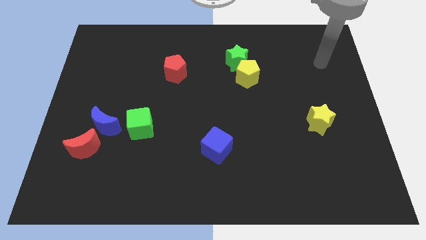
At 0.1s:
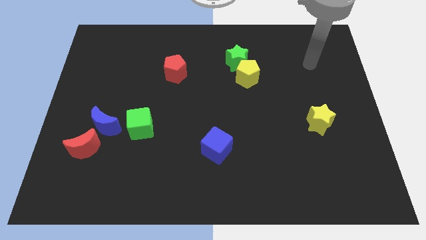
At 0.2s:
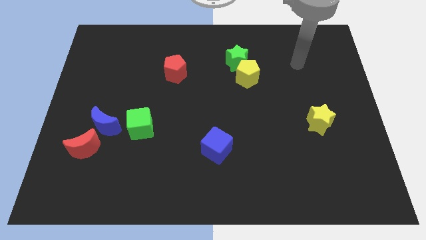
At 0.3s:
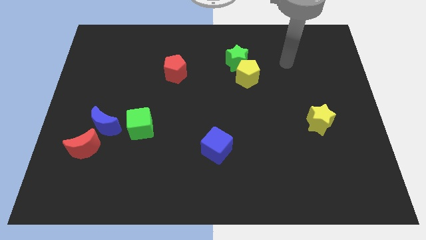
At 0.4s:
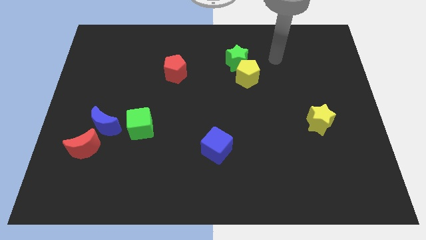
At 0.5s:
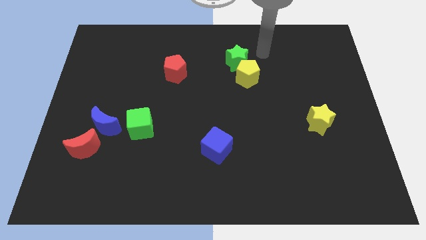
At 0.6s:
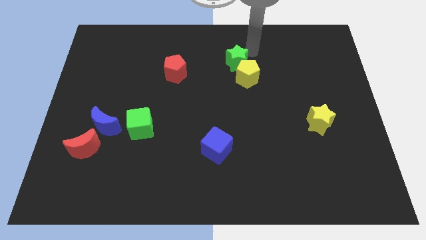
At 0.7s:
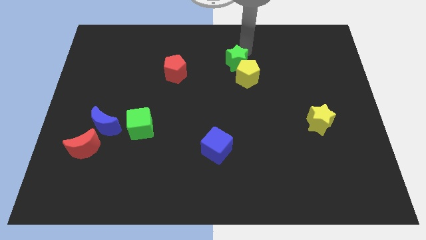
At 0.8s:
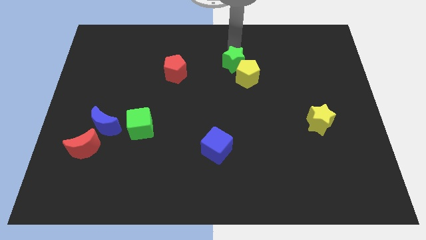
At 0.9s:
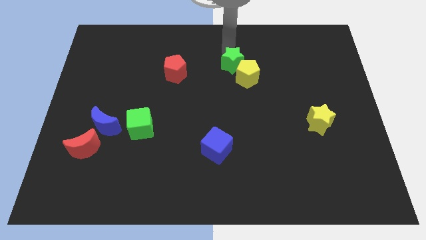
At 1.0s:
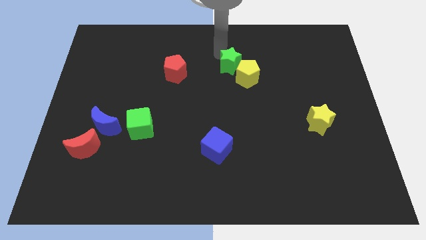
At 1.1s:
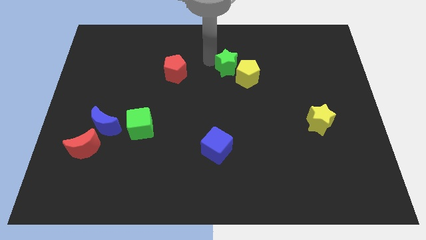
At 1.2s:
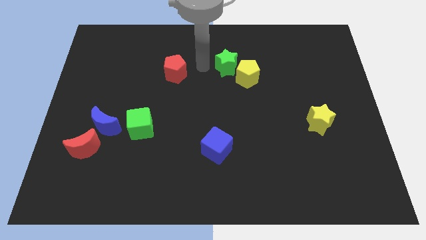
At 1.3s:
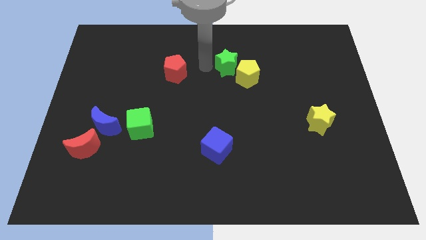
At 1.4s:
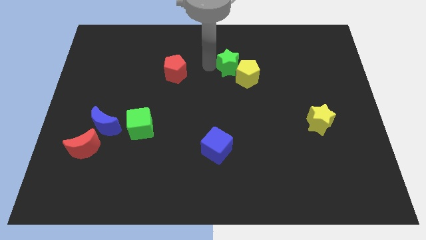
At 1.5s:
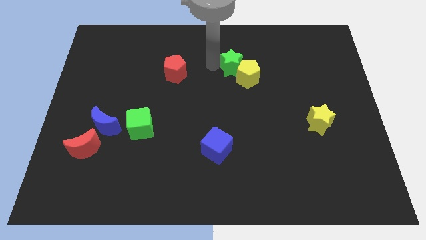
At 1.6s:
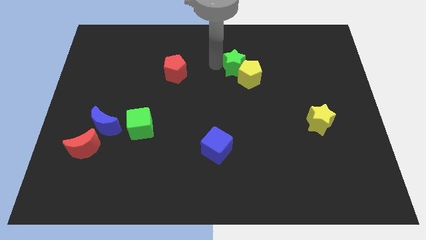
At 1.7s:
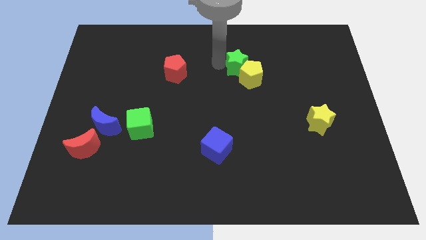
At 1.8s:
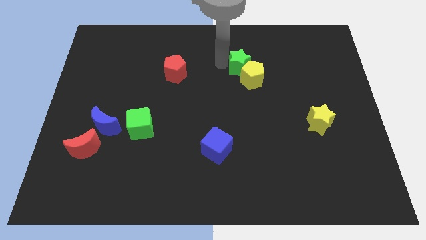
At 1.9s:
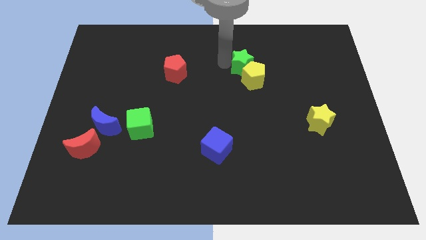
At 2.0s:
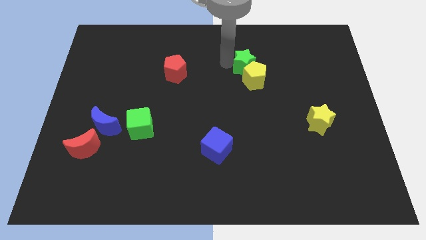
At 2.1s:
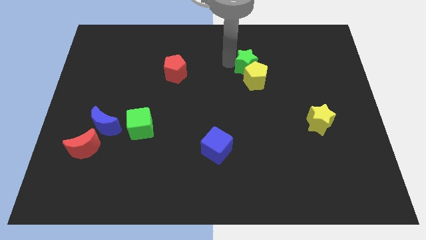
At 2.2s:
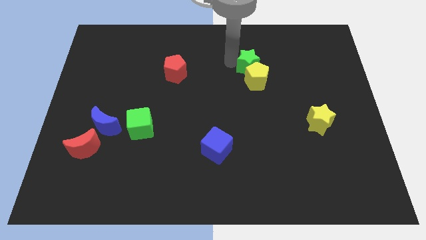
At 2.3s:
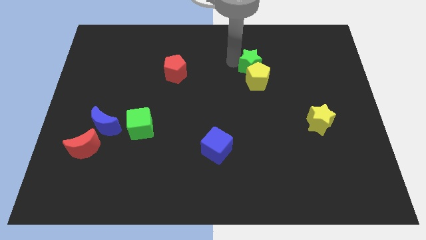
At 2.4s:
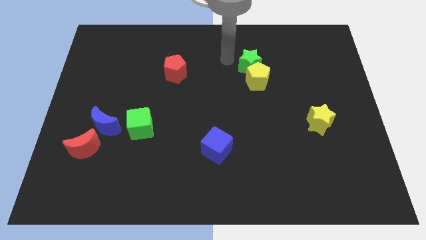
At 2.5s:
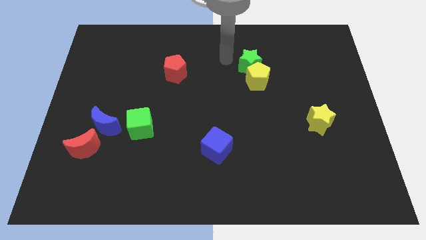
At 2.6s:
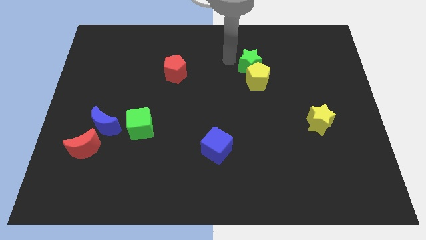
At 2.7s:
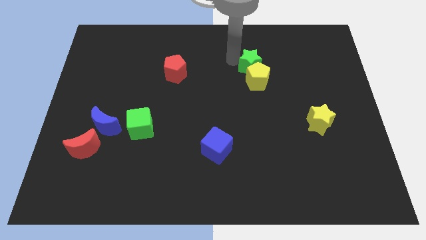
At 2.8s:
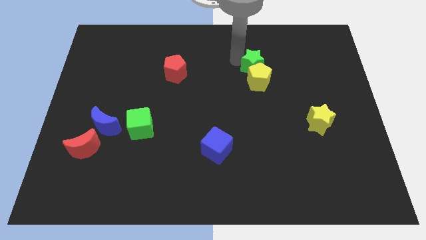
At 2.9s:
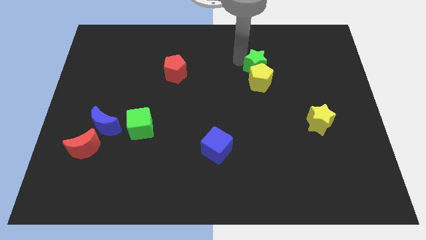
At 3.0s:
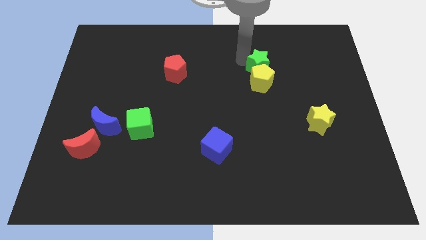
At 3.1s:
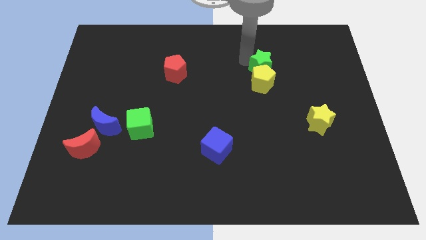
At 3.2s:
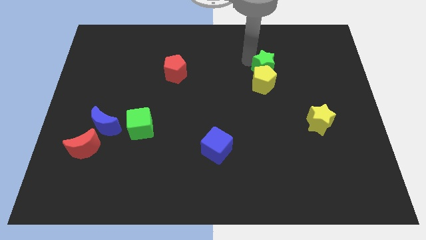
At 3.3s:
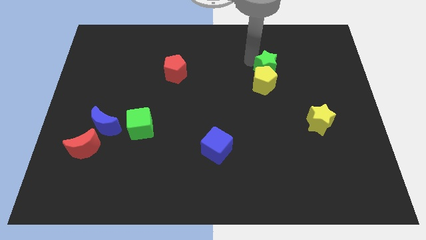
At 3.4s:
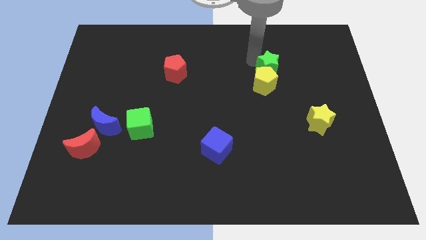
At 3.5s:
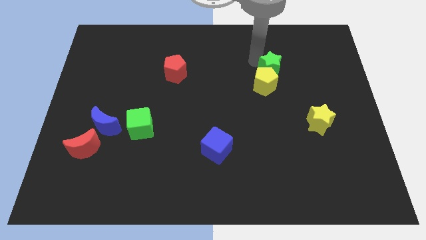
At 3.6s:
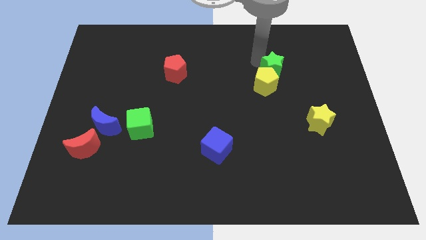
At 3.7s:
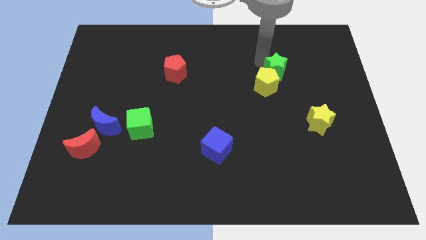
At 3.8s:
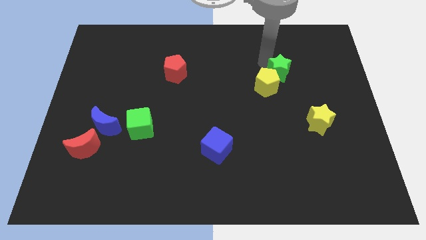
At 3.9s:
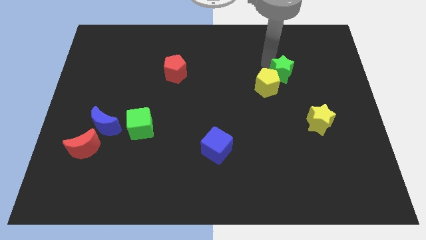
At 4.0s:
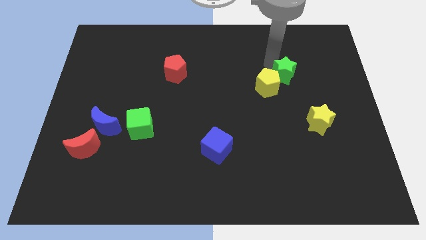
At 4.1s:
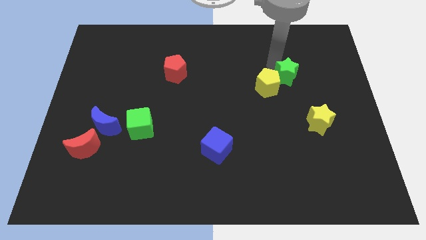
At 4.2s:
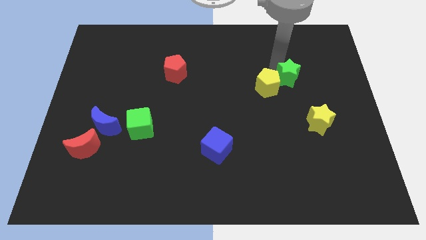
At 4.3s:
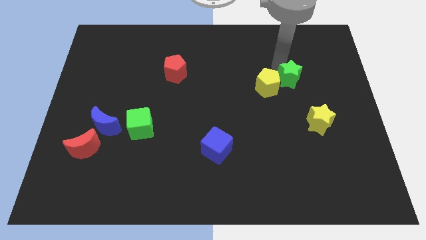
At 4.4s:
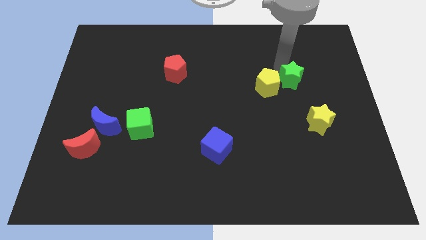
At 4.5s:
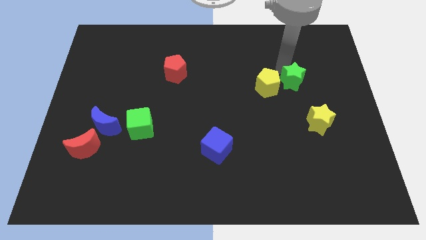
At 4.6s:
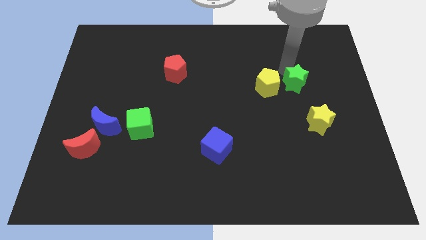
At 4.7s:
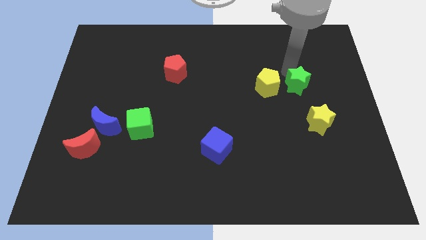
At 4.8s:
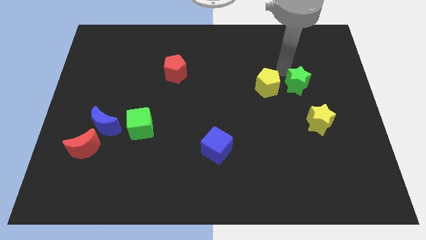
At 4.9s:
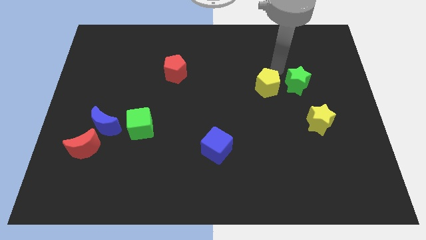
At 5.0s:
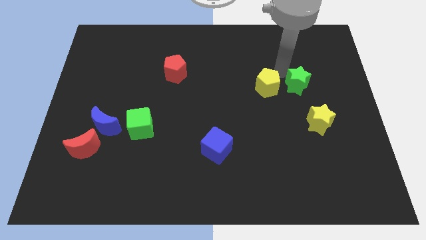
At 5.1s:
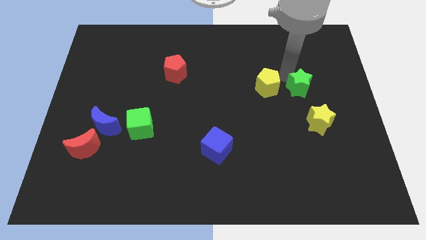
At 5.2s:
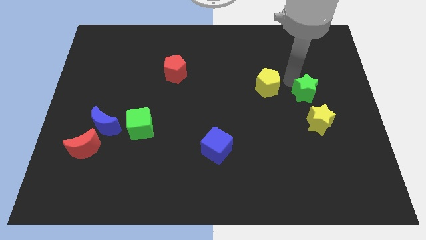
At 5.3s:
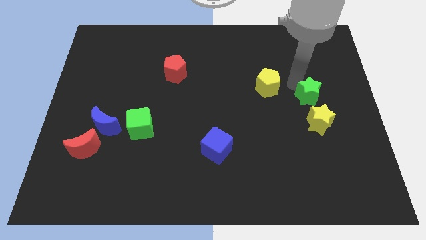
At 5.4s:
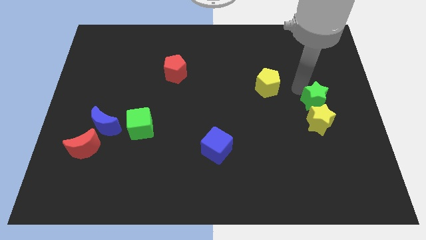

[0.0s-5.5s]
push the green star downwards and right diagonally

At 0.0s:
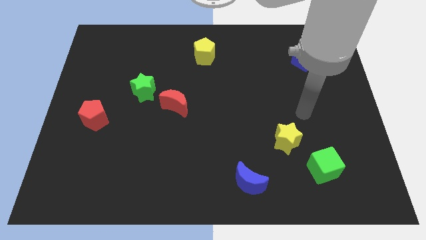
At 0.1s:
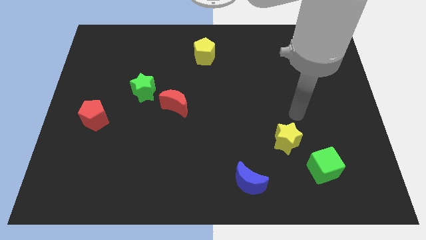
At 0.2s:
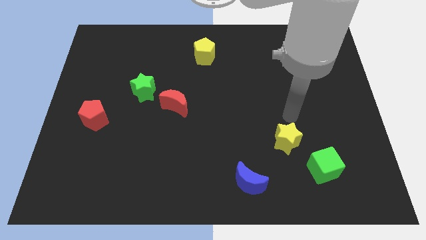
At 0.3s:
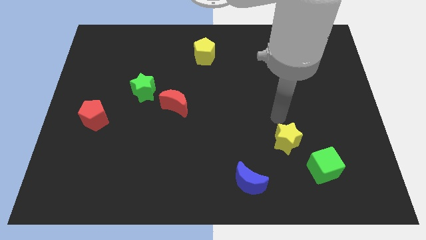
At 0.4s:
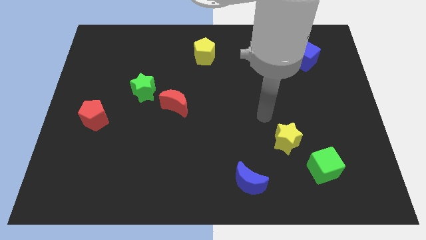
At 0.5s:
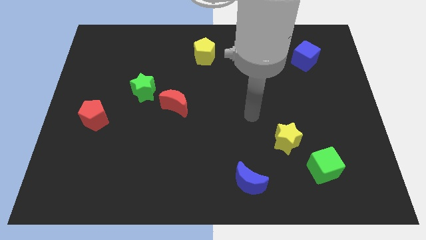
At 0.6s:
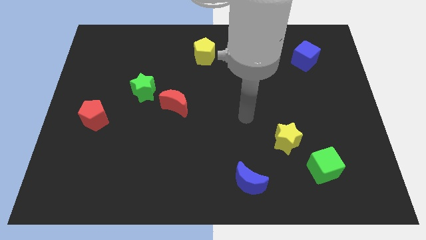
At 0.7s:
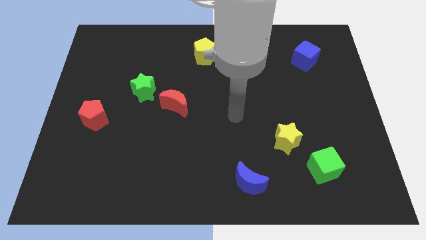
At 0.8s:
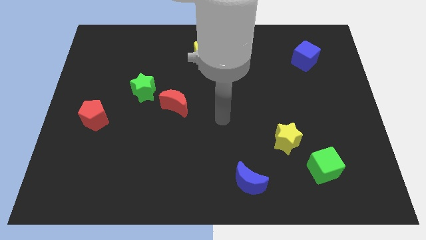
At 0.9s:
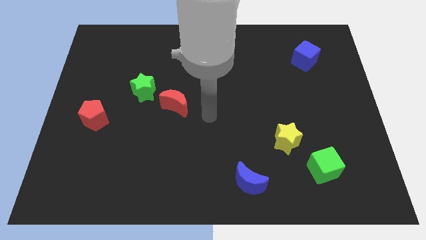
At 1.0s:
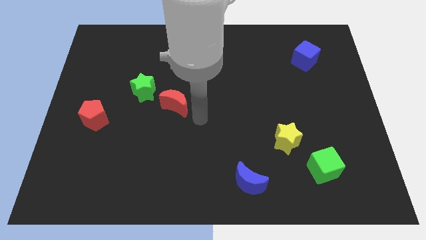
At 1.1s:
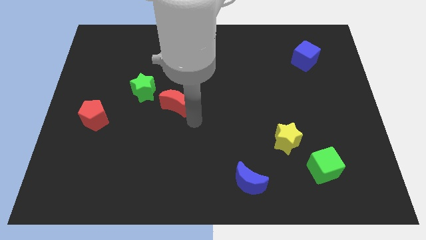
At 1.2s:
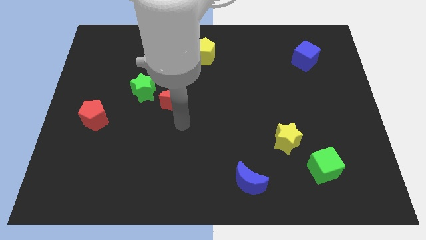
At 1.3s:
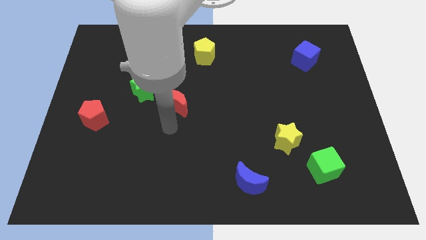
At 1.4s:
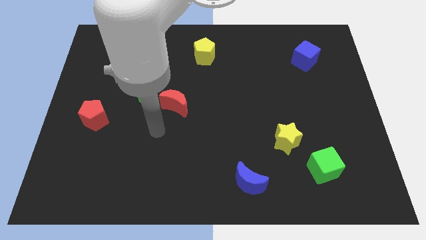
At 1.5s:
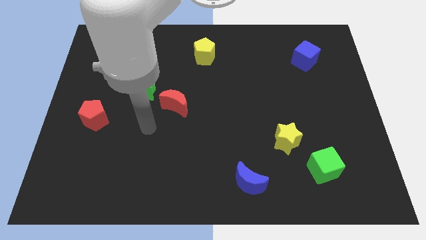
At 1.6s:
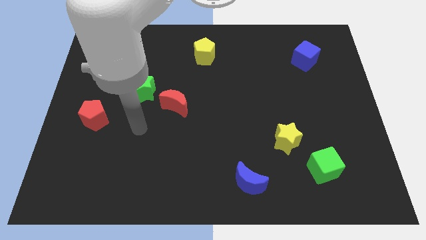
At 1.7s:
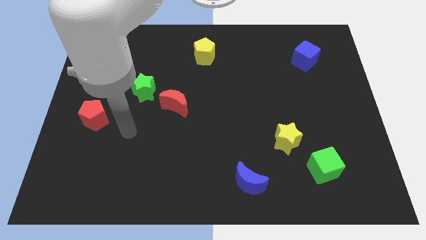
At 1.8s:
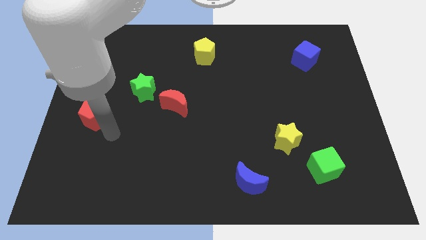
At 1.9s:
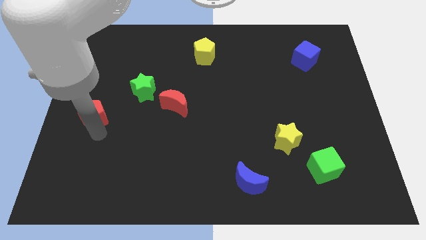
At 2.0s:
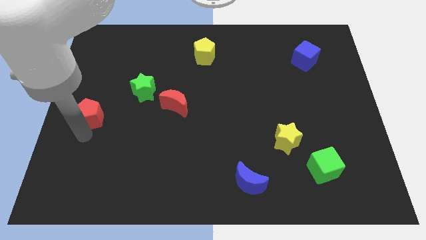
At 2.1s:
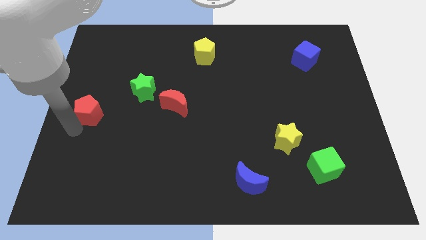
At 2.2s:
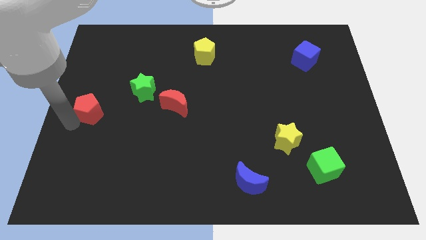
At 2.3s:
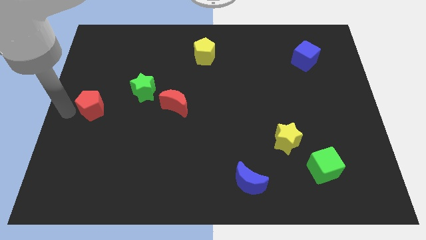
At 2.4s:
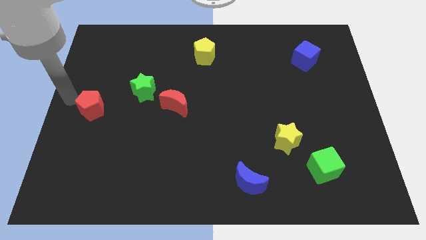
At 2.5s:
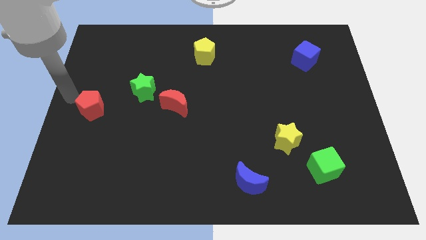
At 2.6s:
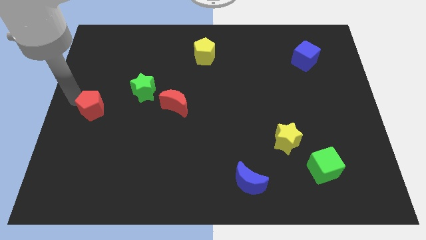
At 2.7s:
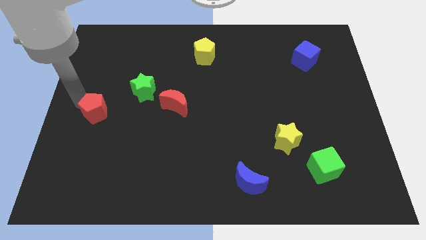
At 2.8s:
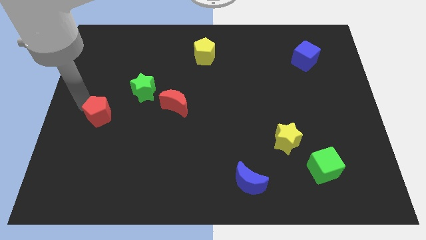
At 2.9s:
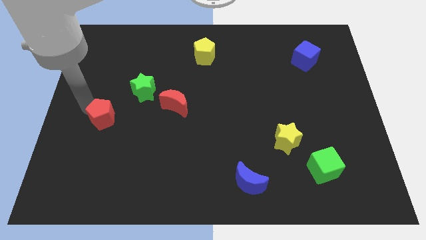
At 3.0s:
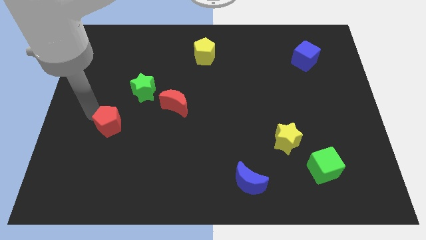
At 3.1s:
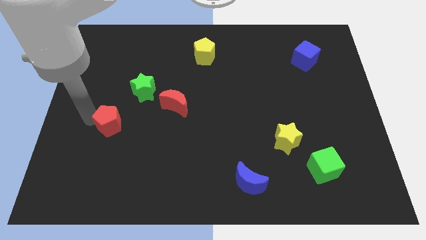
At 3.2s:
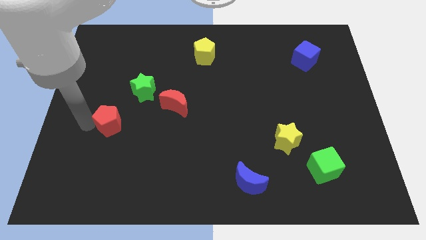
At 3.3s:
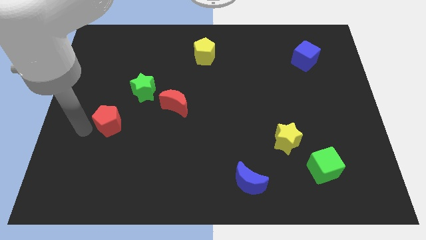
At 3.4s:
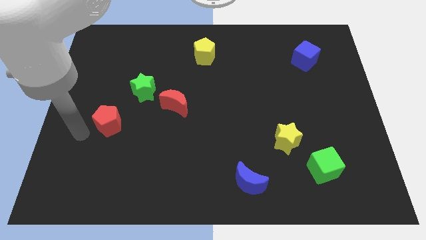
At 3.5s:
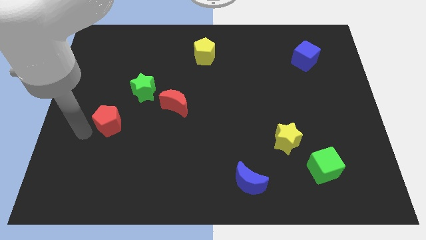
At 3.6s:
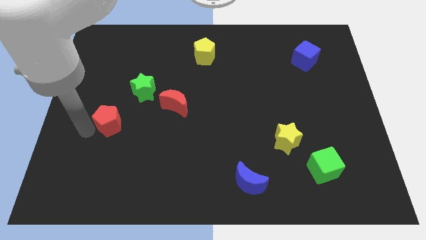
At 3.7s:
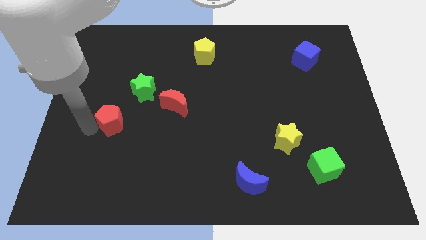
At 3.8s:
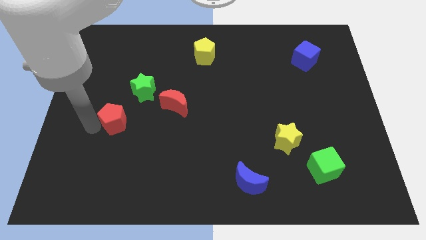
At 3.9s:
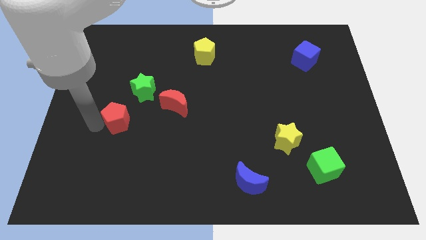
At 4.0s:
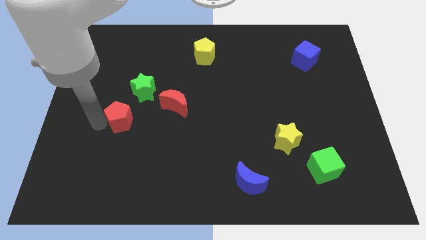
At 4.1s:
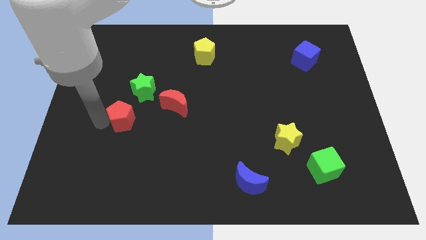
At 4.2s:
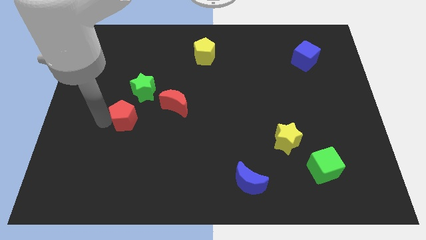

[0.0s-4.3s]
slightly push the red pentagon right
